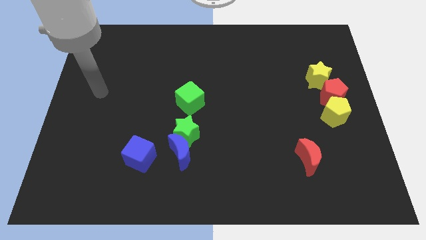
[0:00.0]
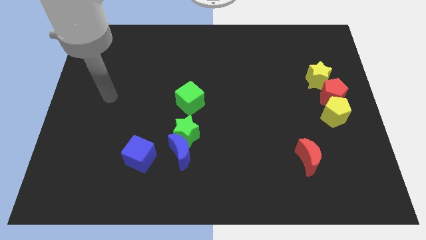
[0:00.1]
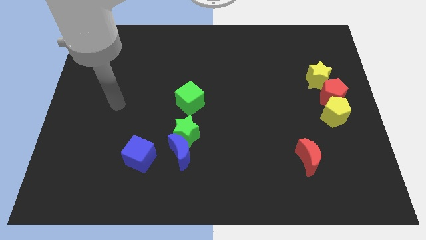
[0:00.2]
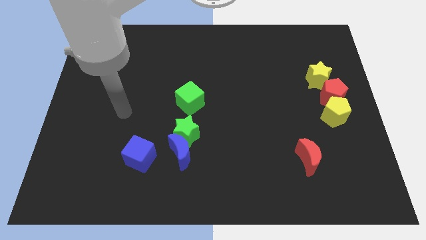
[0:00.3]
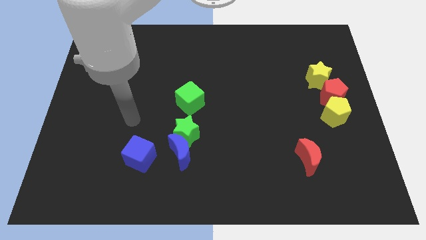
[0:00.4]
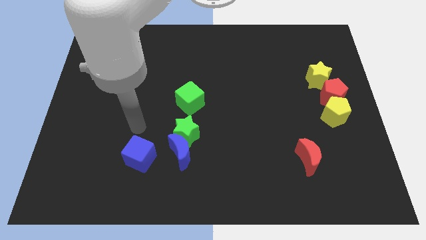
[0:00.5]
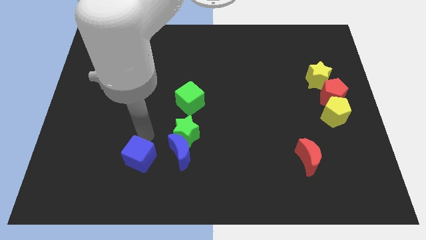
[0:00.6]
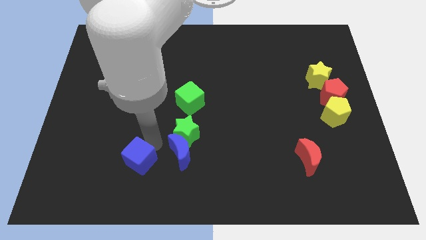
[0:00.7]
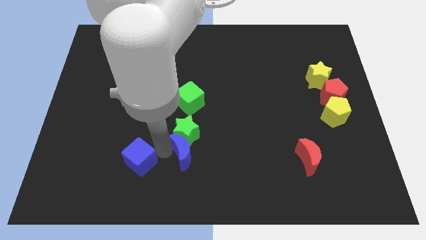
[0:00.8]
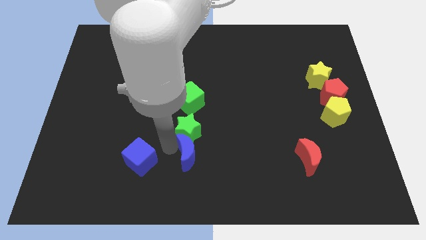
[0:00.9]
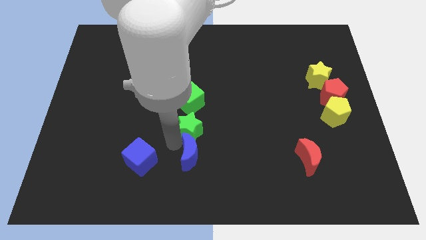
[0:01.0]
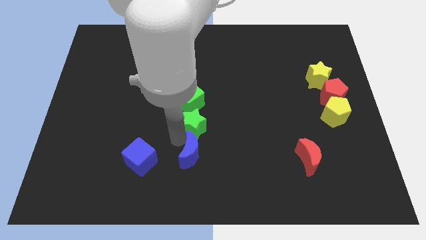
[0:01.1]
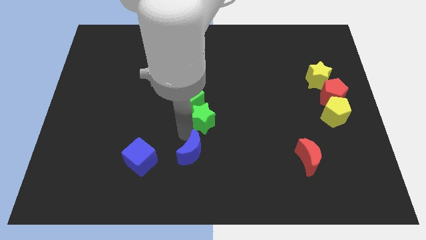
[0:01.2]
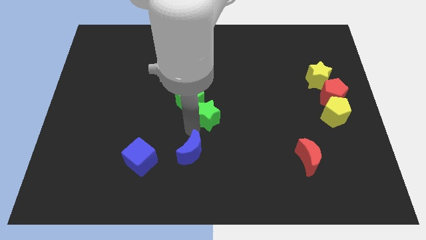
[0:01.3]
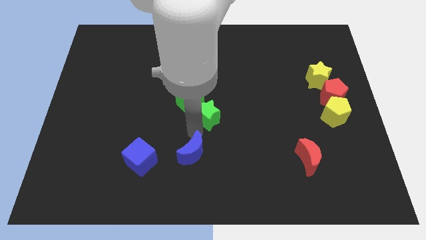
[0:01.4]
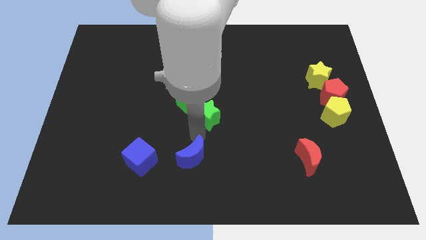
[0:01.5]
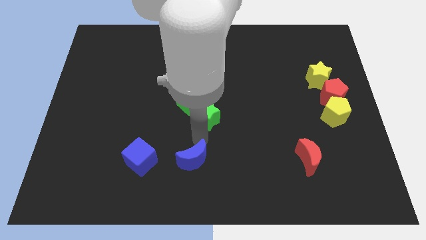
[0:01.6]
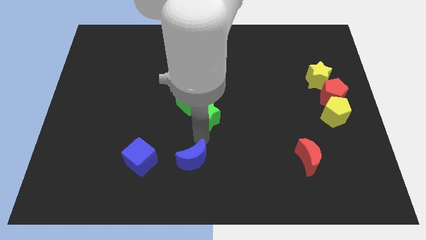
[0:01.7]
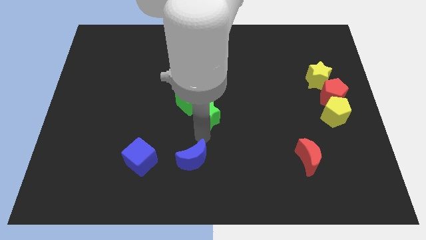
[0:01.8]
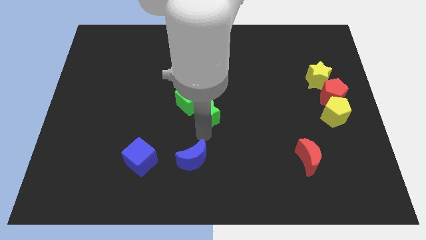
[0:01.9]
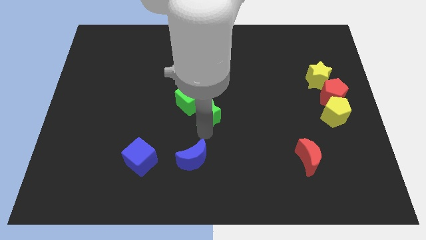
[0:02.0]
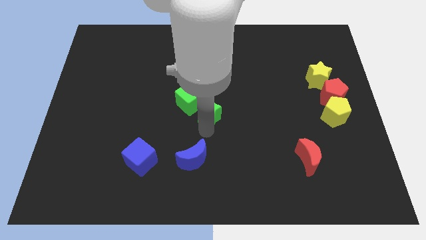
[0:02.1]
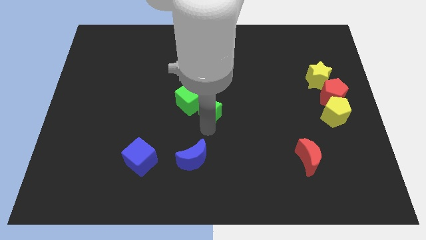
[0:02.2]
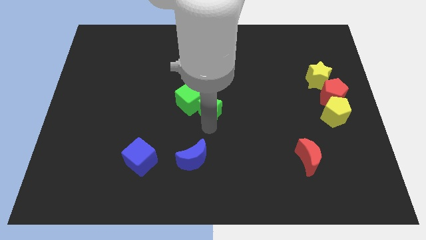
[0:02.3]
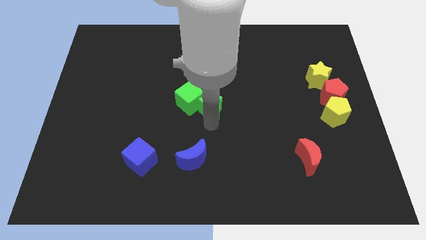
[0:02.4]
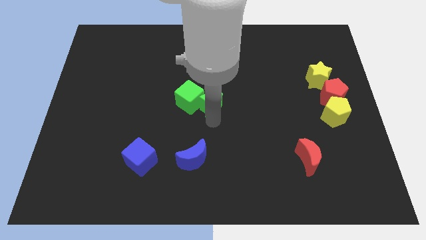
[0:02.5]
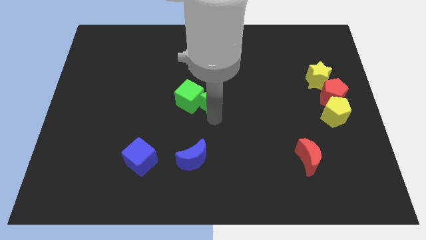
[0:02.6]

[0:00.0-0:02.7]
push the green star up somewhat

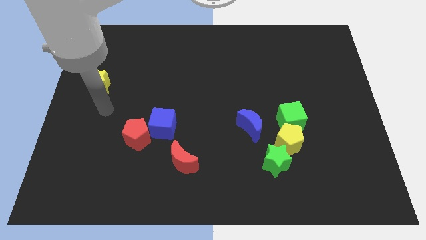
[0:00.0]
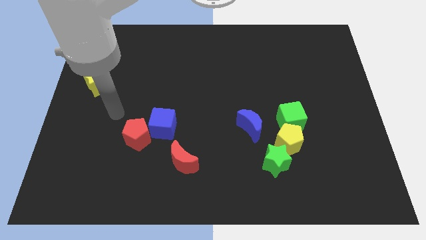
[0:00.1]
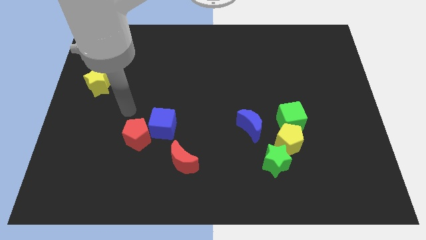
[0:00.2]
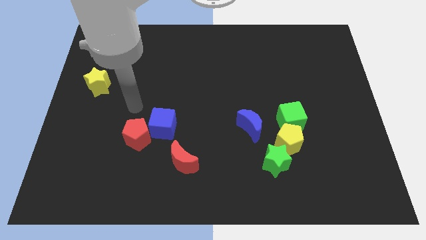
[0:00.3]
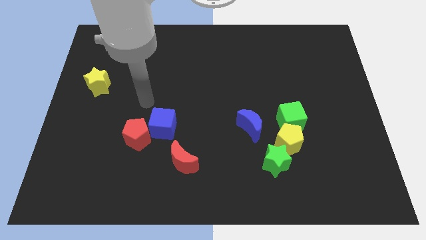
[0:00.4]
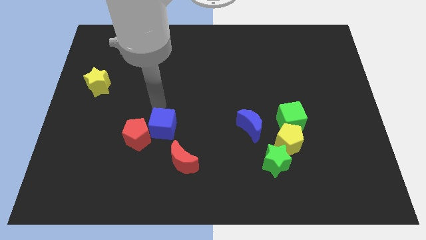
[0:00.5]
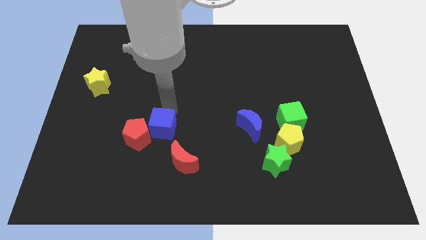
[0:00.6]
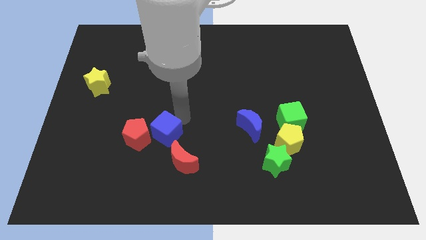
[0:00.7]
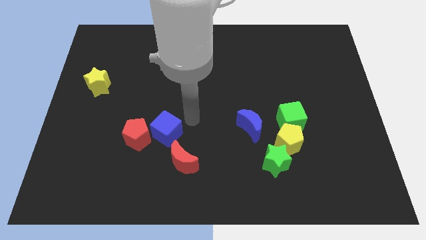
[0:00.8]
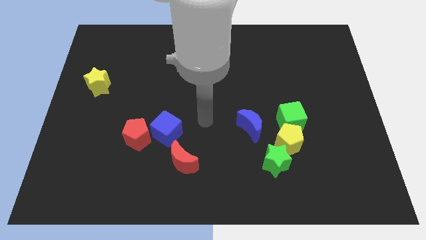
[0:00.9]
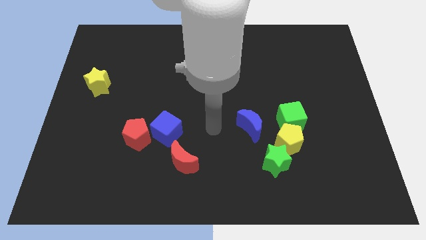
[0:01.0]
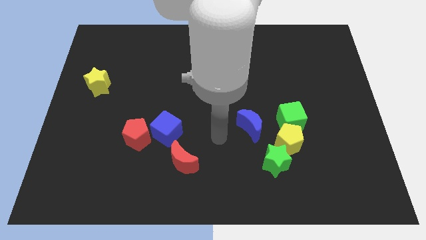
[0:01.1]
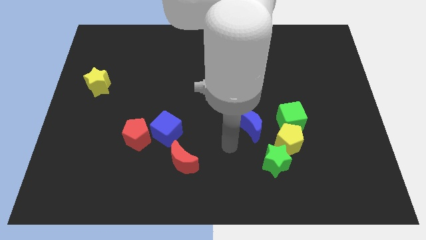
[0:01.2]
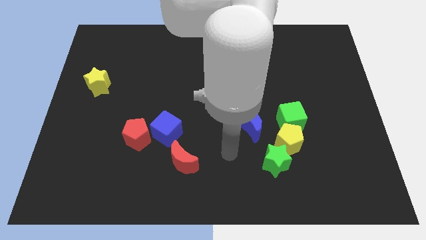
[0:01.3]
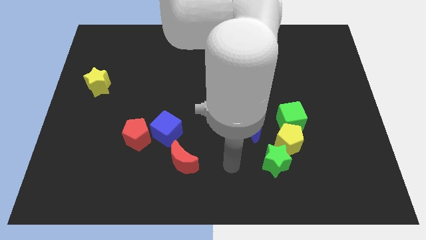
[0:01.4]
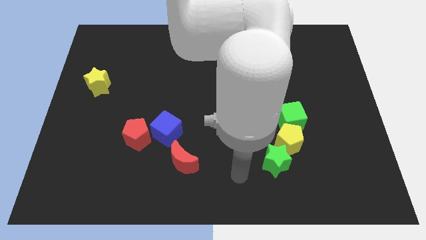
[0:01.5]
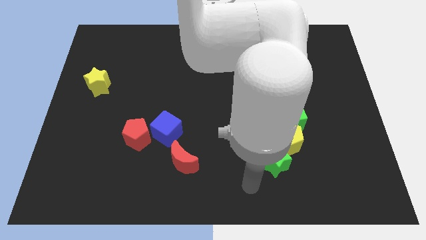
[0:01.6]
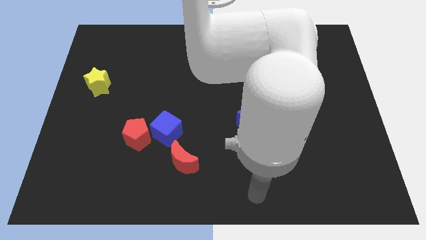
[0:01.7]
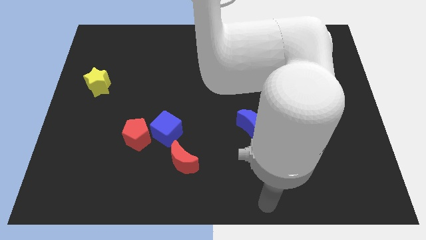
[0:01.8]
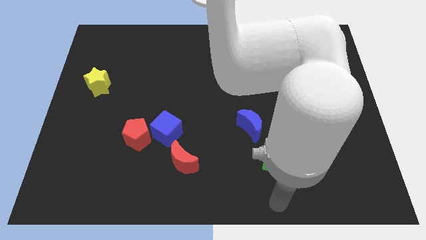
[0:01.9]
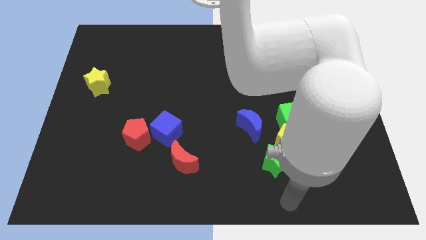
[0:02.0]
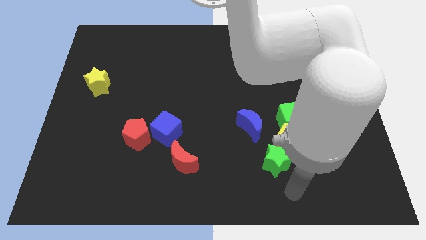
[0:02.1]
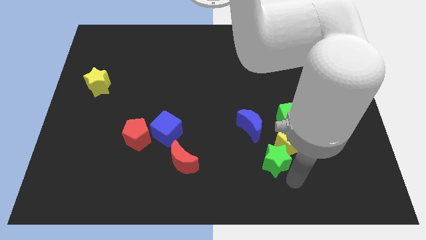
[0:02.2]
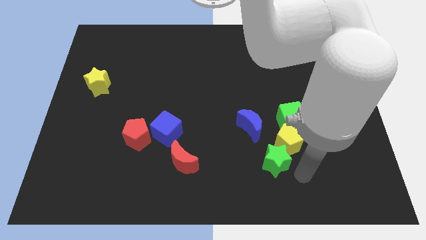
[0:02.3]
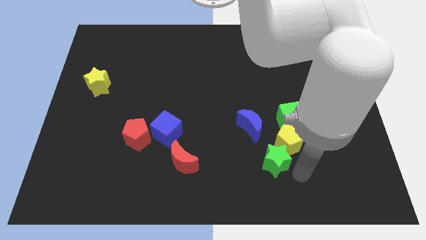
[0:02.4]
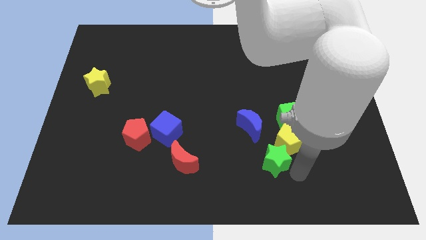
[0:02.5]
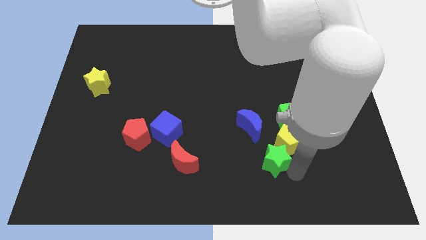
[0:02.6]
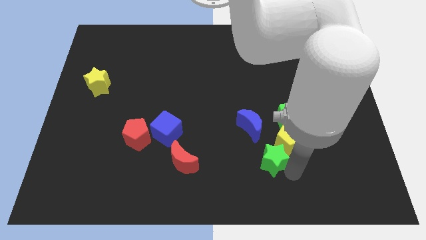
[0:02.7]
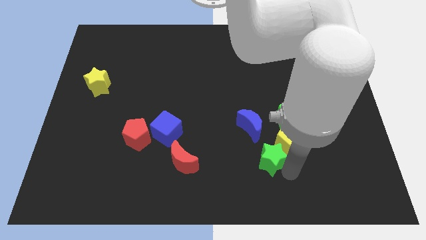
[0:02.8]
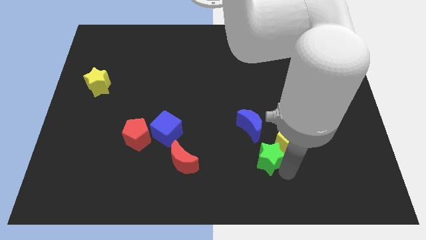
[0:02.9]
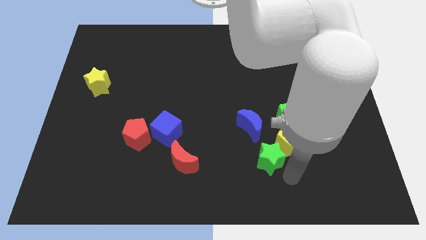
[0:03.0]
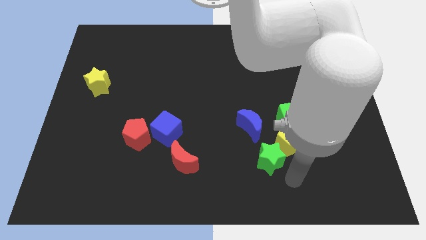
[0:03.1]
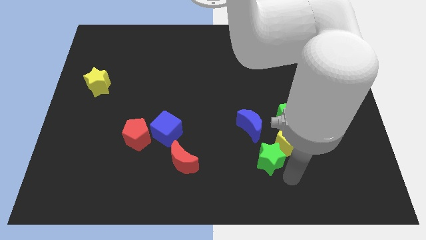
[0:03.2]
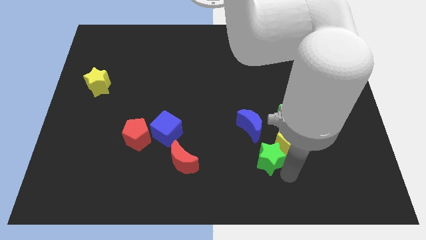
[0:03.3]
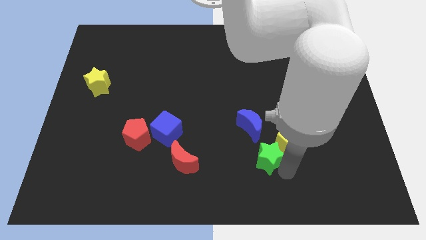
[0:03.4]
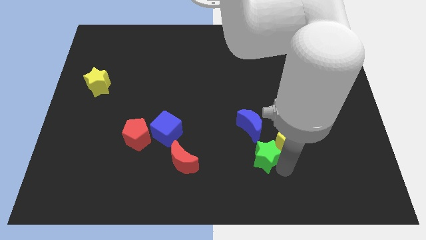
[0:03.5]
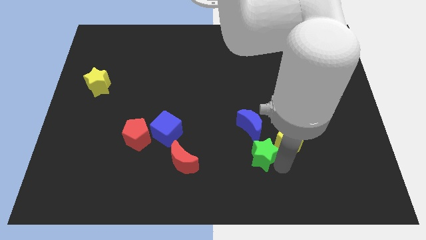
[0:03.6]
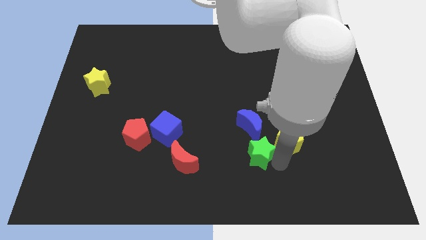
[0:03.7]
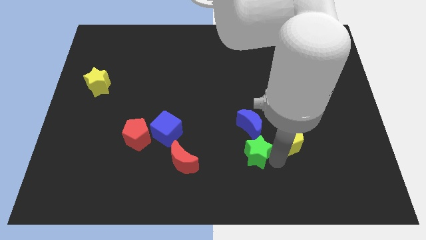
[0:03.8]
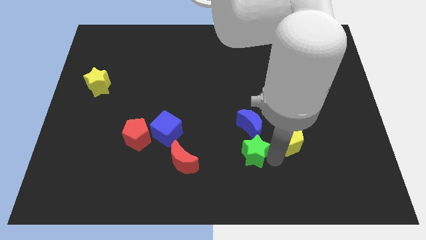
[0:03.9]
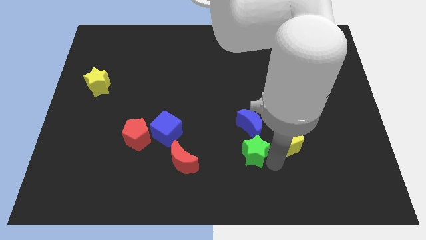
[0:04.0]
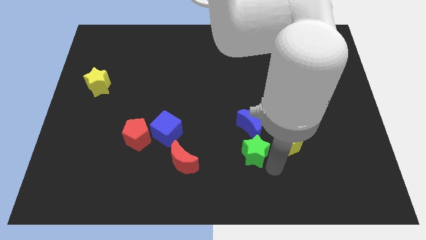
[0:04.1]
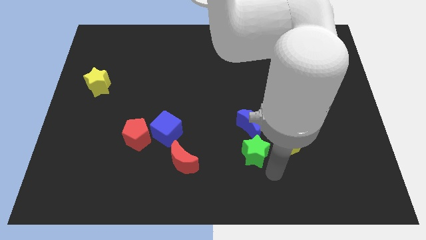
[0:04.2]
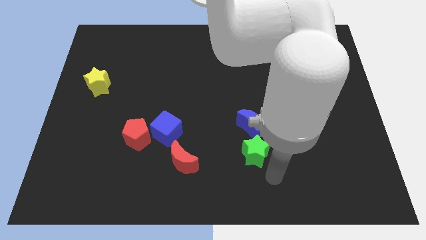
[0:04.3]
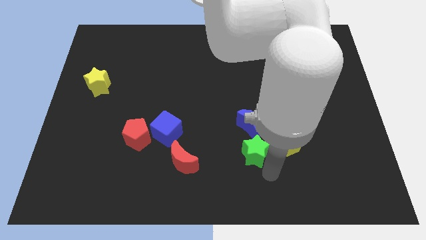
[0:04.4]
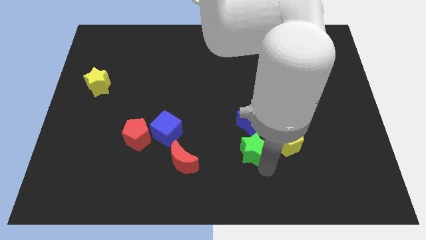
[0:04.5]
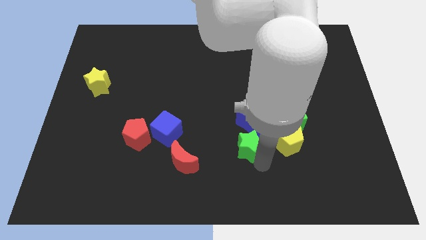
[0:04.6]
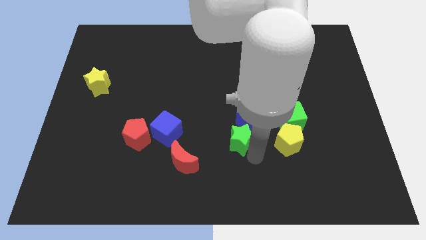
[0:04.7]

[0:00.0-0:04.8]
slide the green star a little bit upwards and then left

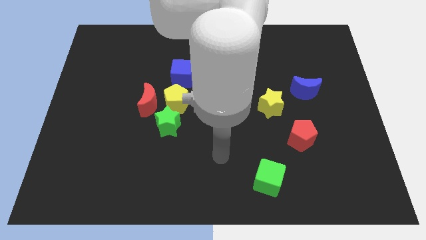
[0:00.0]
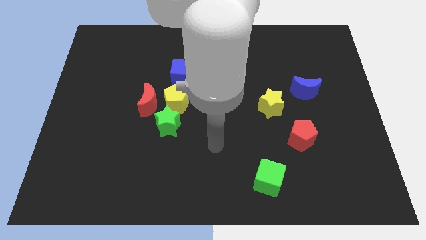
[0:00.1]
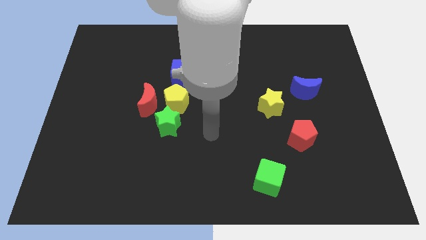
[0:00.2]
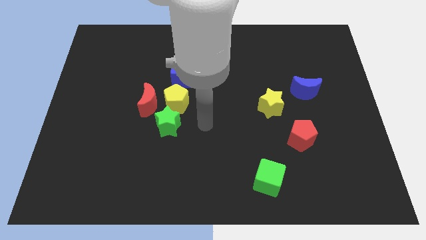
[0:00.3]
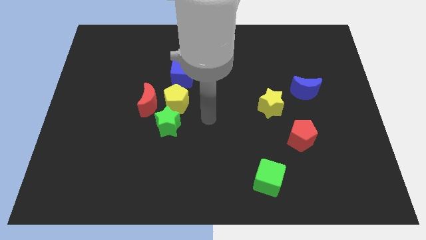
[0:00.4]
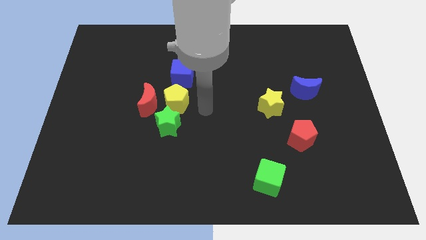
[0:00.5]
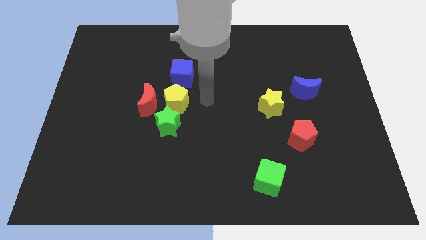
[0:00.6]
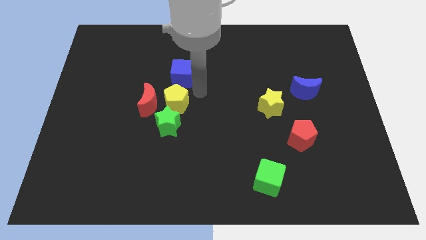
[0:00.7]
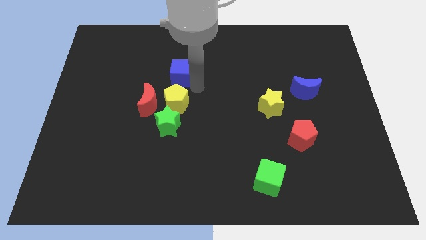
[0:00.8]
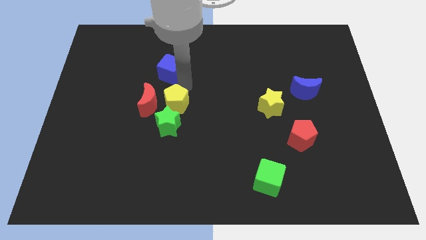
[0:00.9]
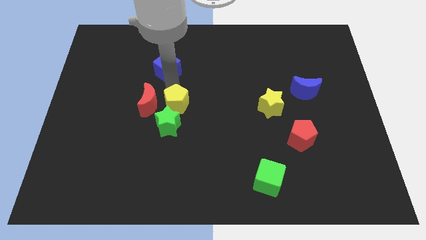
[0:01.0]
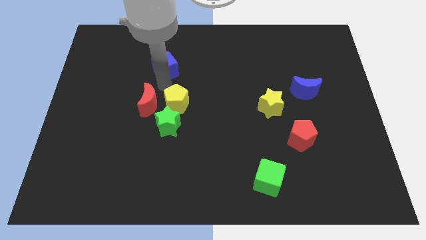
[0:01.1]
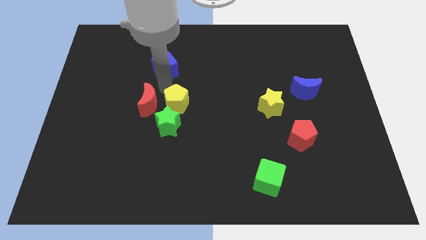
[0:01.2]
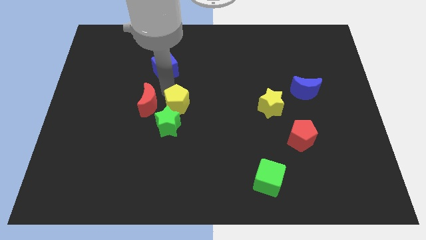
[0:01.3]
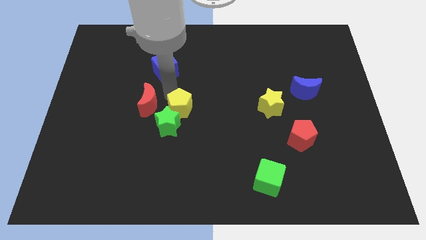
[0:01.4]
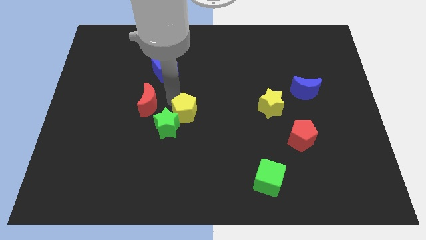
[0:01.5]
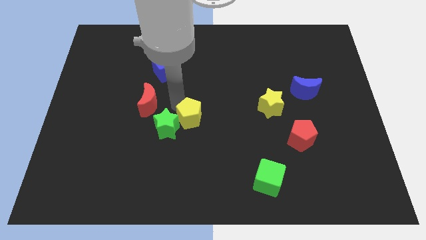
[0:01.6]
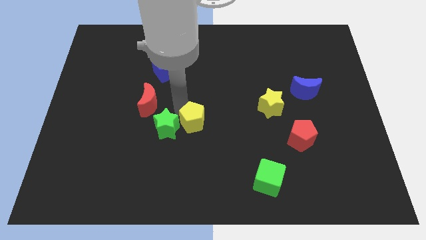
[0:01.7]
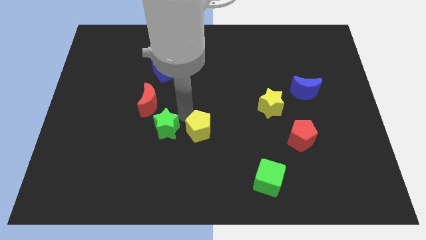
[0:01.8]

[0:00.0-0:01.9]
slide the yellow pentagon somewhat downwards and to the right diagonally
